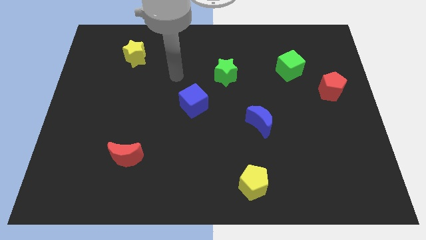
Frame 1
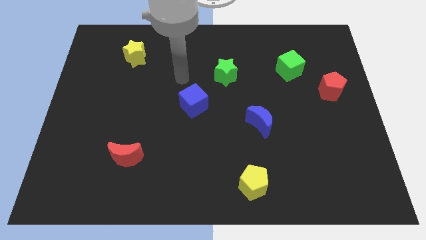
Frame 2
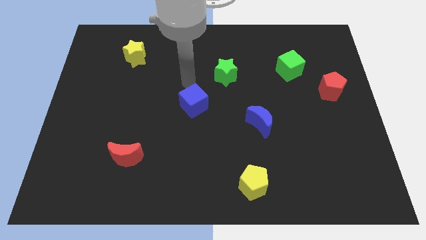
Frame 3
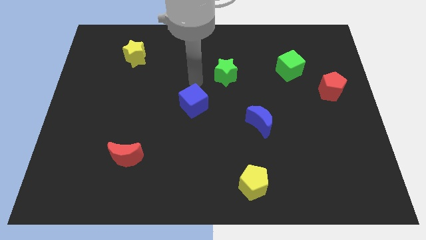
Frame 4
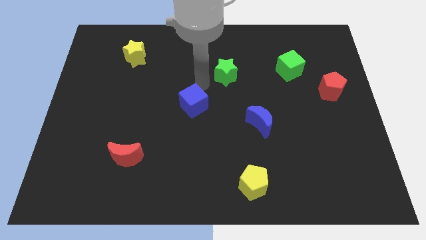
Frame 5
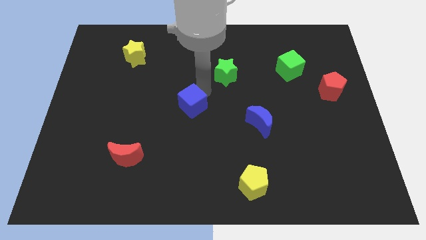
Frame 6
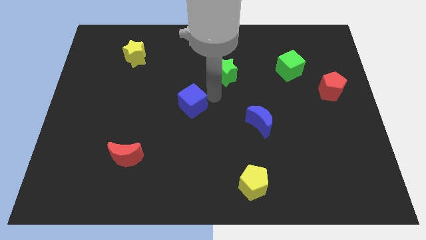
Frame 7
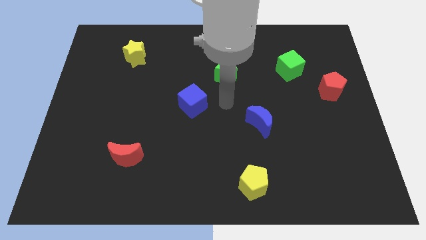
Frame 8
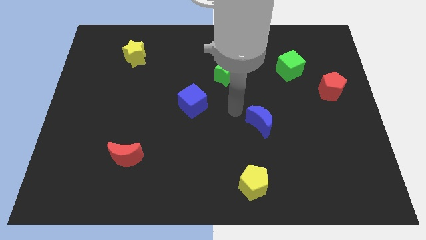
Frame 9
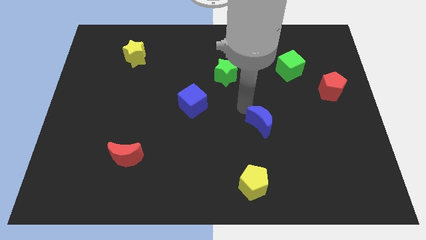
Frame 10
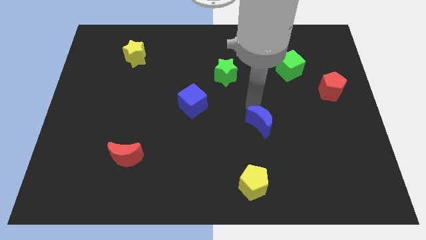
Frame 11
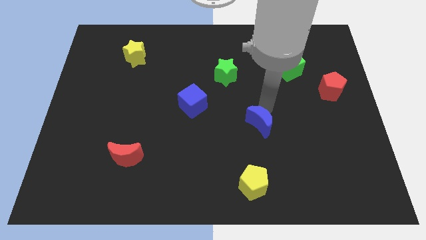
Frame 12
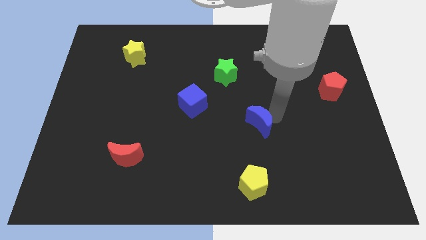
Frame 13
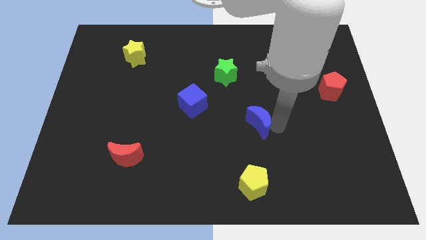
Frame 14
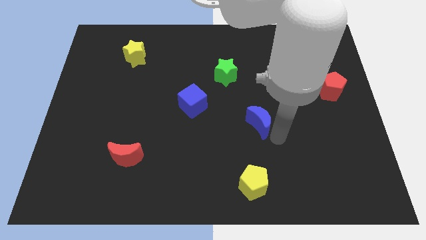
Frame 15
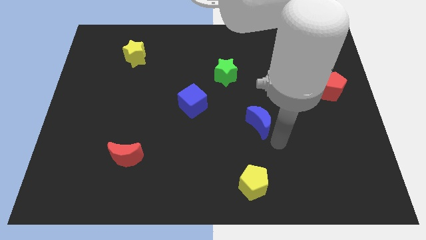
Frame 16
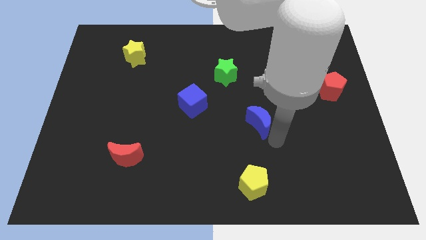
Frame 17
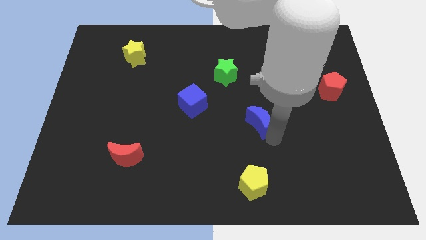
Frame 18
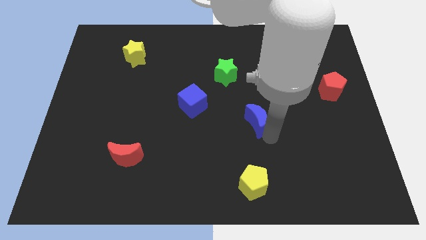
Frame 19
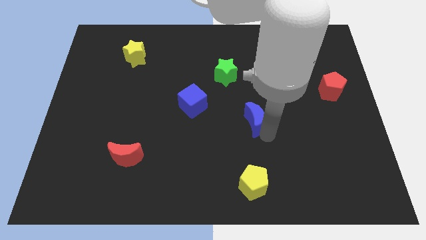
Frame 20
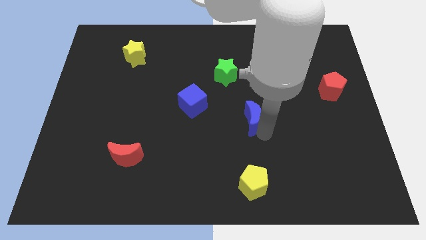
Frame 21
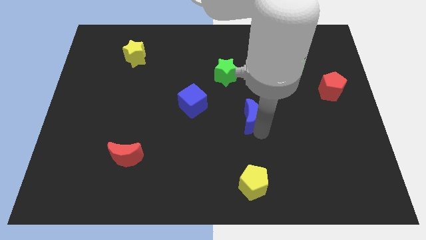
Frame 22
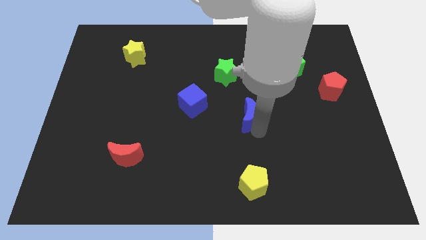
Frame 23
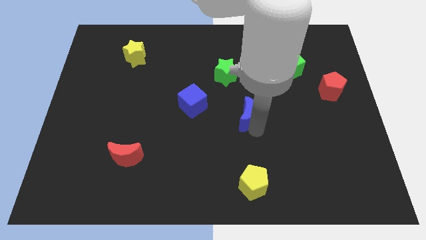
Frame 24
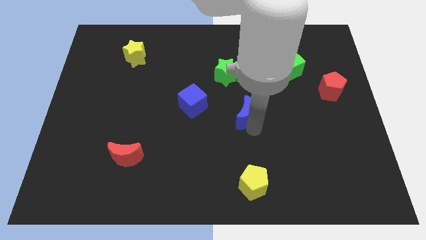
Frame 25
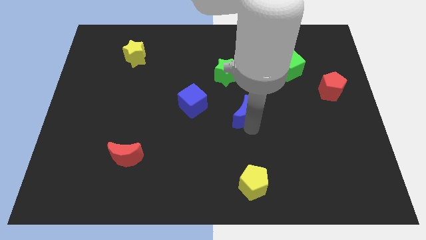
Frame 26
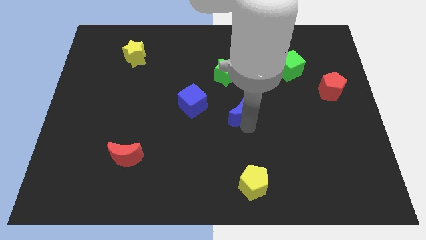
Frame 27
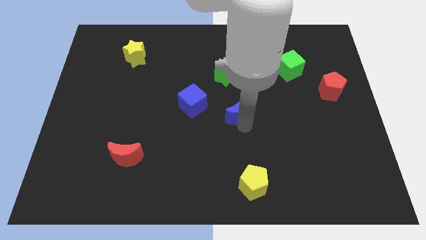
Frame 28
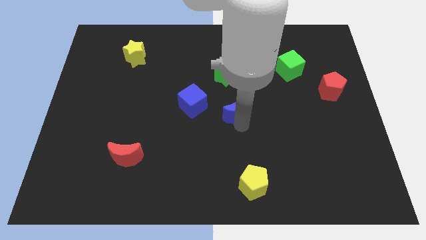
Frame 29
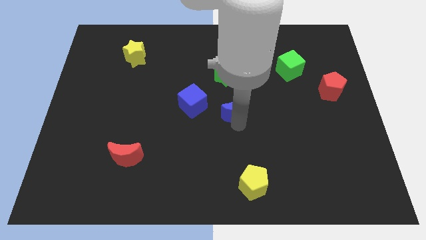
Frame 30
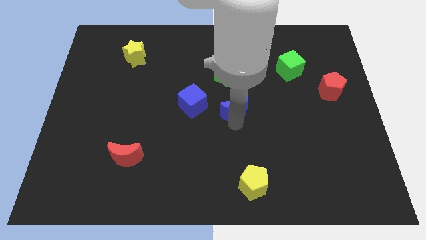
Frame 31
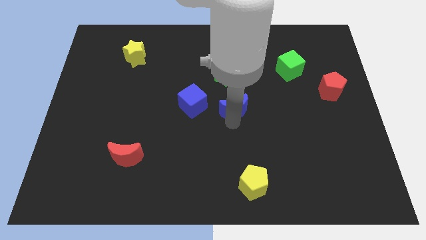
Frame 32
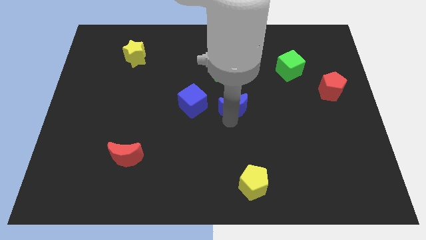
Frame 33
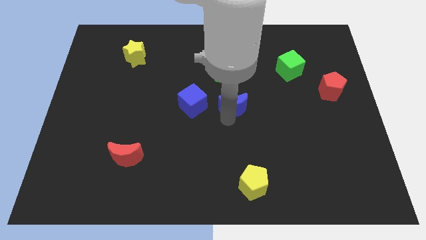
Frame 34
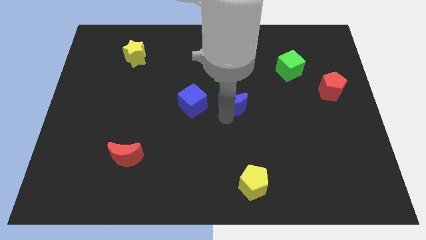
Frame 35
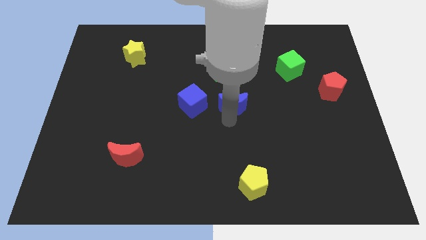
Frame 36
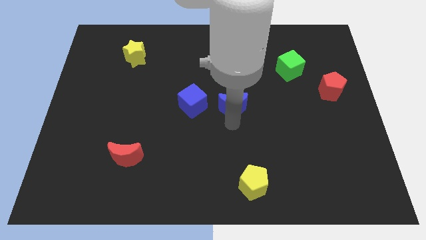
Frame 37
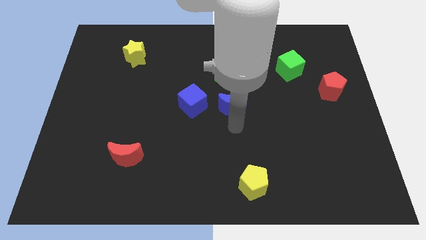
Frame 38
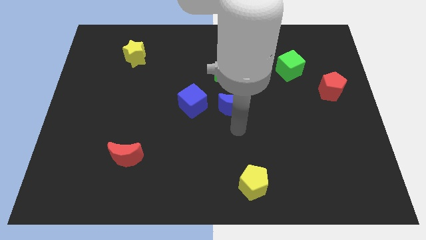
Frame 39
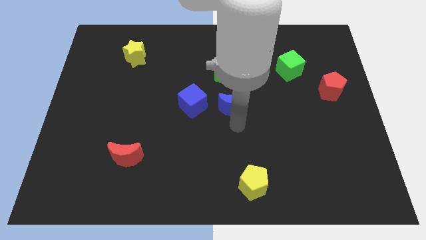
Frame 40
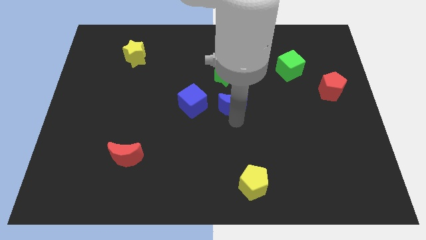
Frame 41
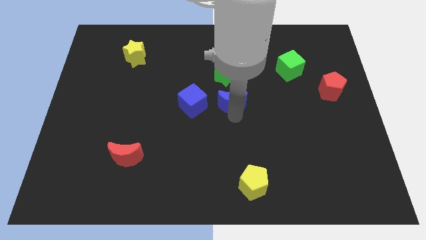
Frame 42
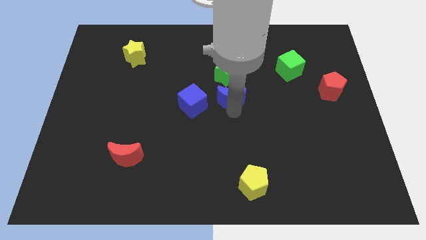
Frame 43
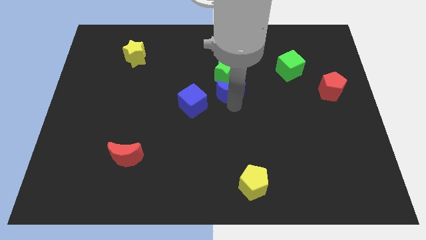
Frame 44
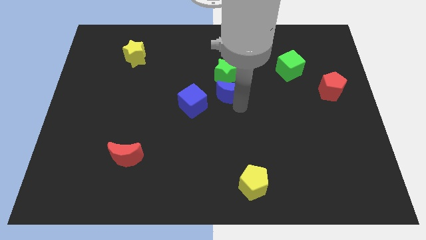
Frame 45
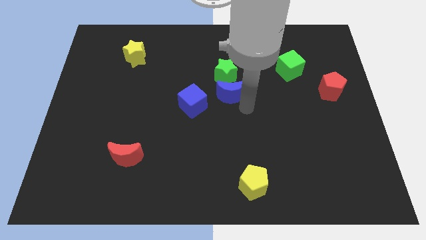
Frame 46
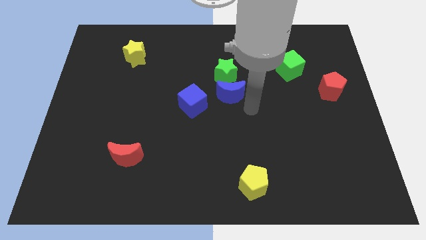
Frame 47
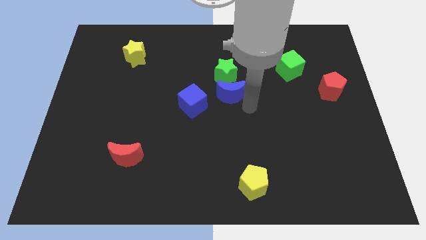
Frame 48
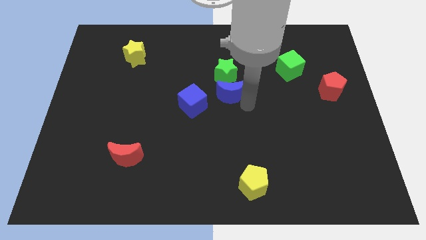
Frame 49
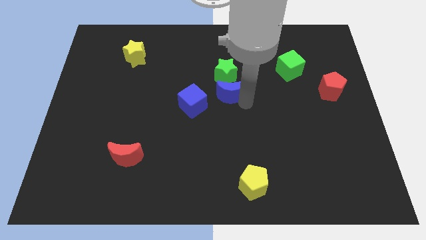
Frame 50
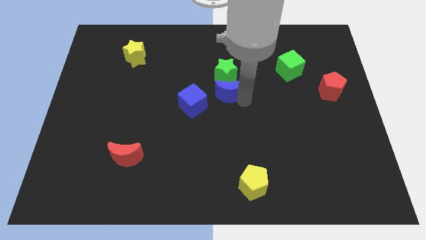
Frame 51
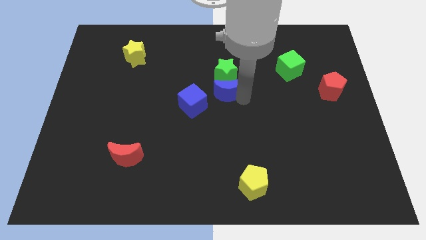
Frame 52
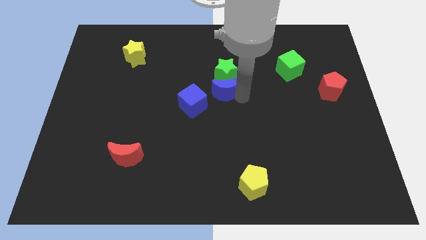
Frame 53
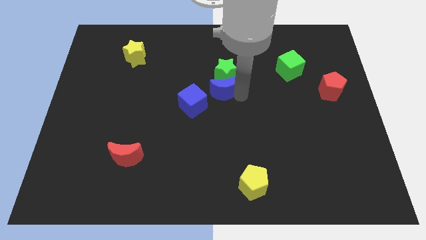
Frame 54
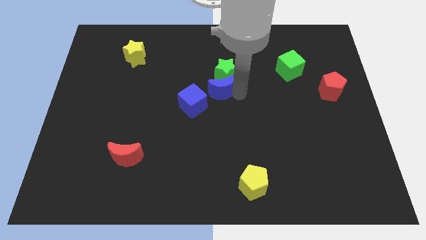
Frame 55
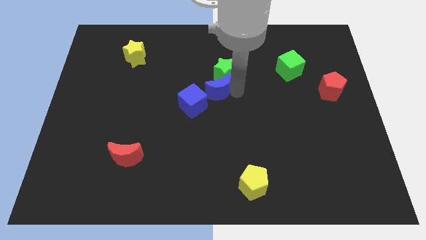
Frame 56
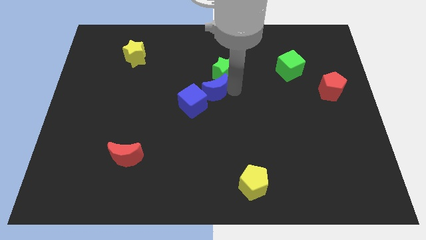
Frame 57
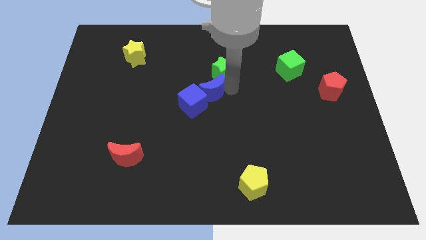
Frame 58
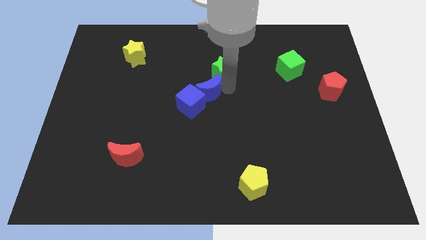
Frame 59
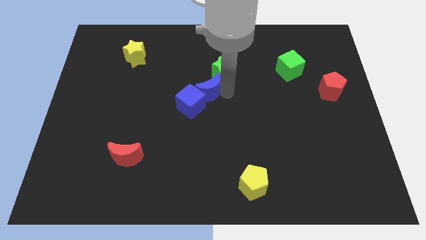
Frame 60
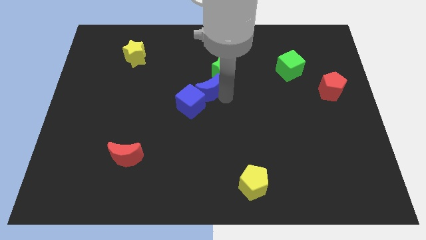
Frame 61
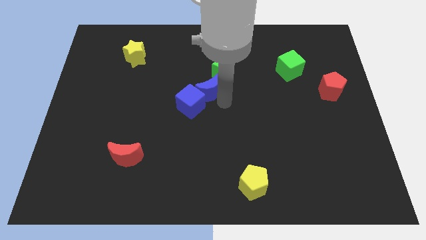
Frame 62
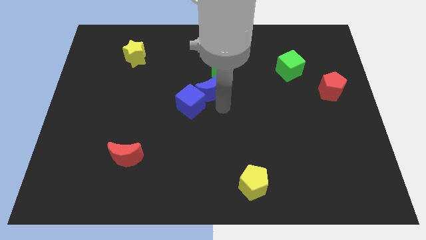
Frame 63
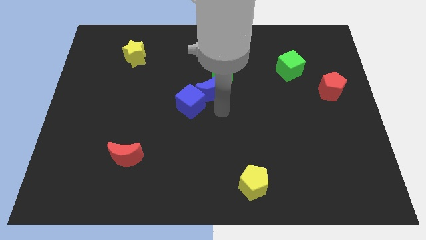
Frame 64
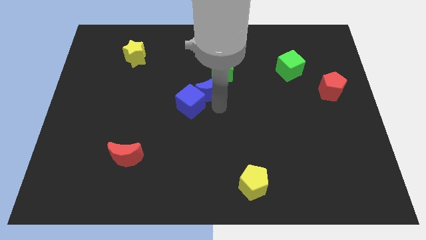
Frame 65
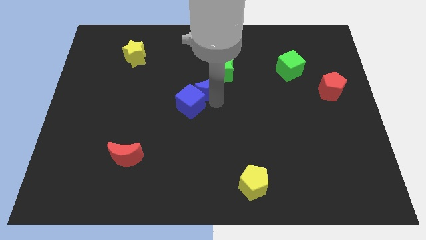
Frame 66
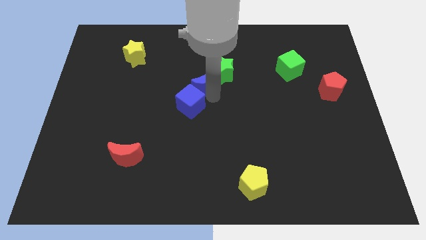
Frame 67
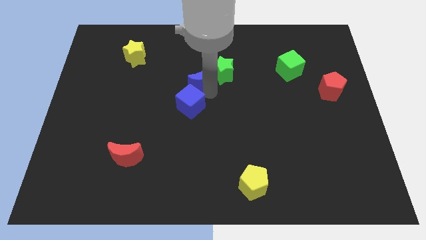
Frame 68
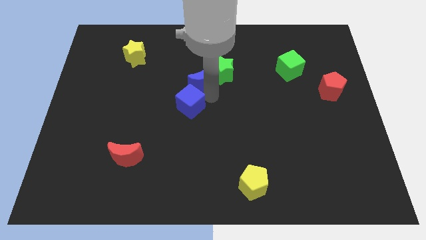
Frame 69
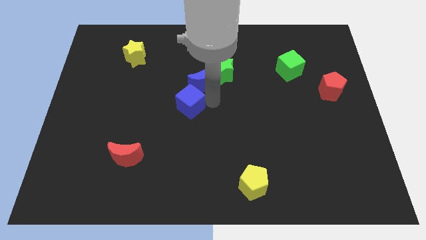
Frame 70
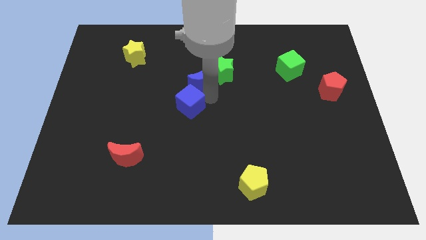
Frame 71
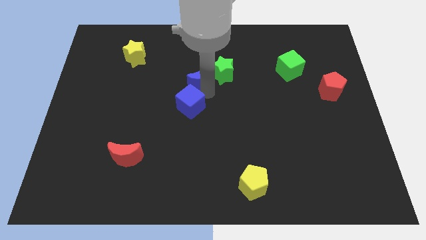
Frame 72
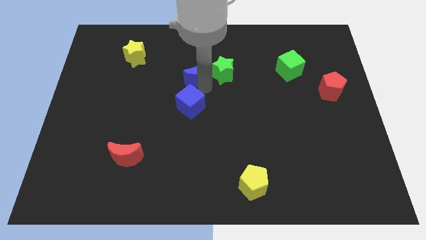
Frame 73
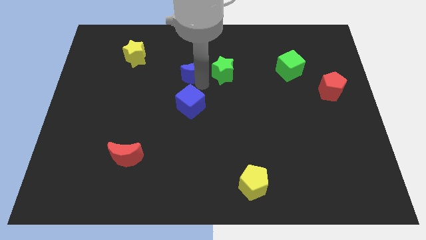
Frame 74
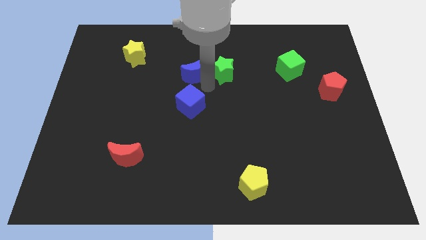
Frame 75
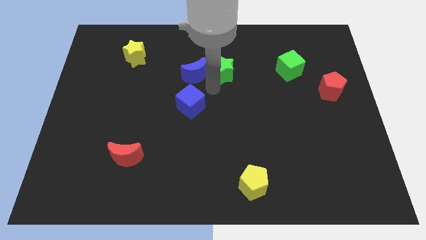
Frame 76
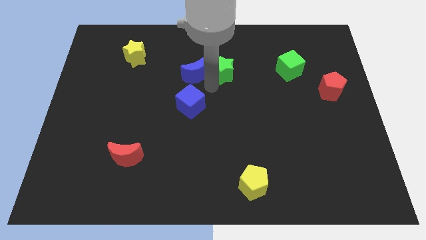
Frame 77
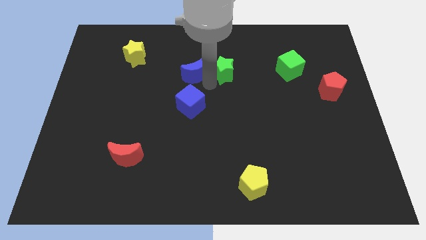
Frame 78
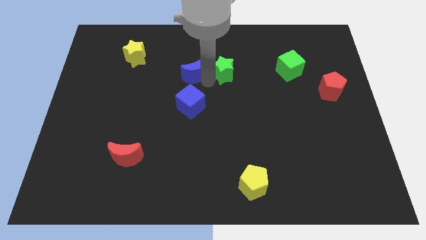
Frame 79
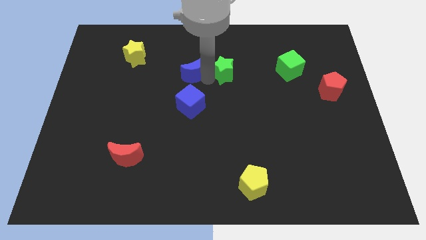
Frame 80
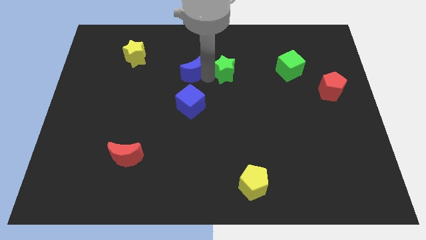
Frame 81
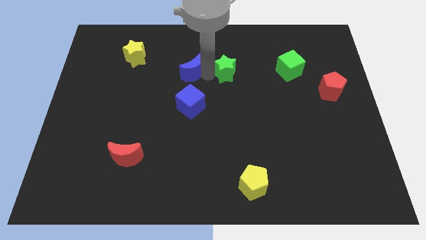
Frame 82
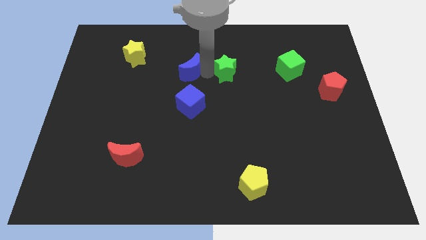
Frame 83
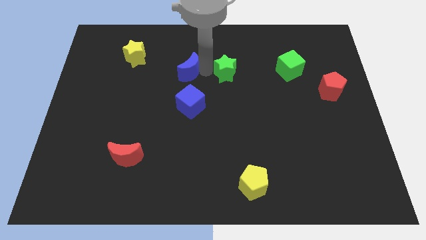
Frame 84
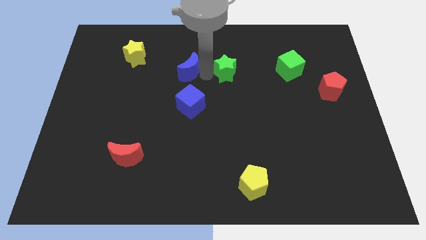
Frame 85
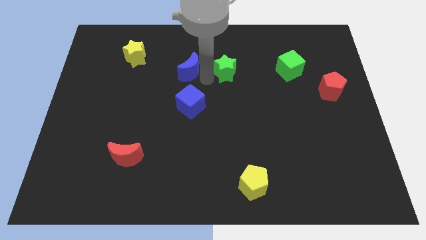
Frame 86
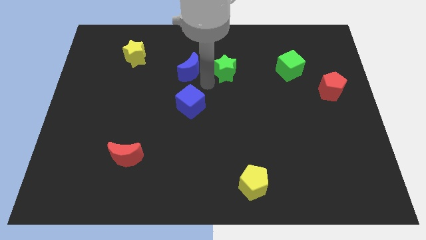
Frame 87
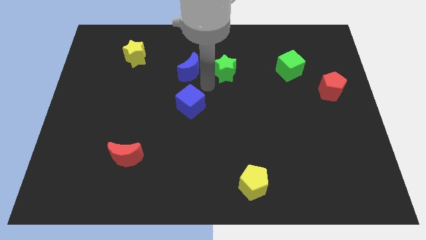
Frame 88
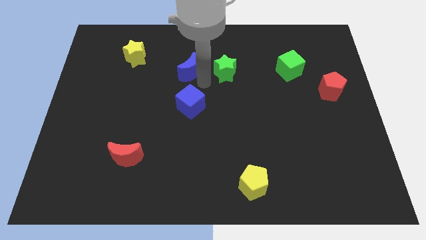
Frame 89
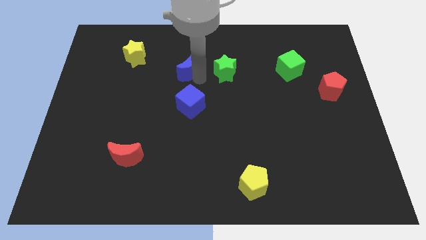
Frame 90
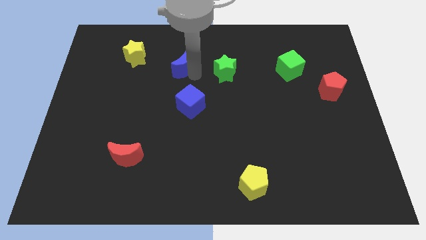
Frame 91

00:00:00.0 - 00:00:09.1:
put the blue moon to the right side of the yellow star
